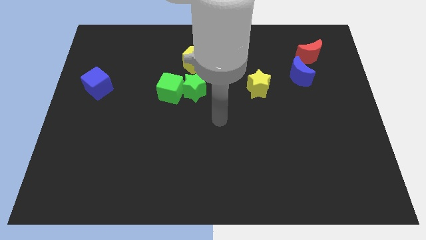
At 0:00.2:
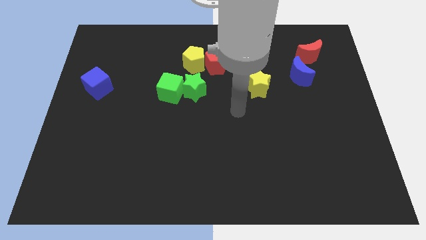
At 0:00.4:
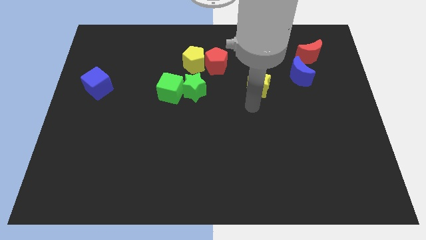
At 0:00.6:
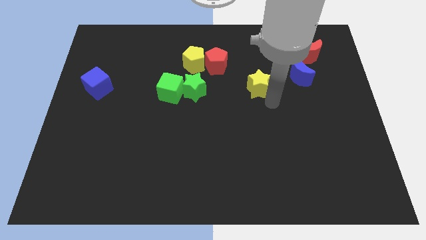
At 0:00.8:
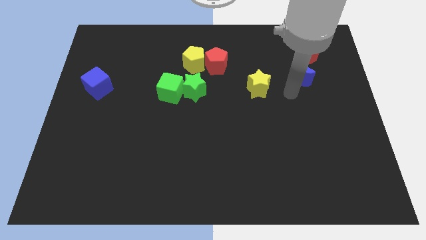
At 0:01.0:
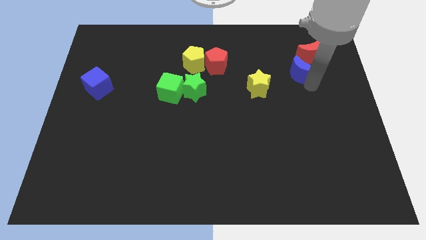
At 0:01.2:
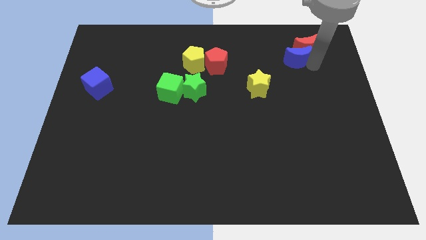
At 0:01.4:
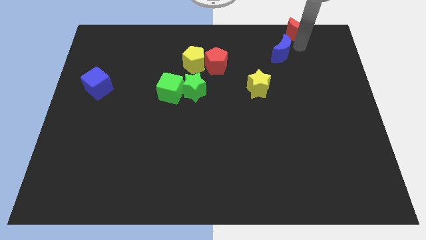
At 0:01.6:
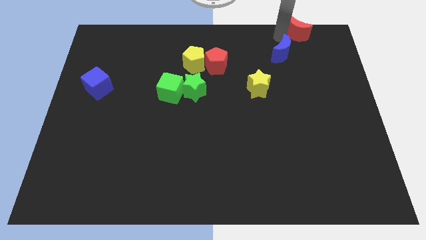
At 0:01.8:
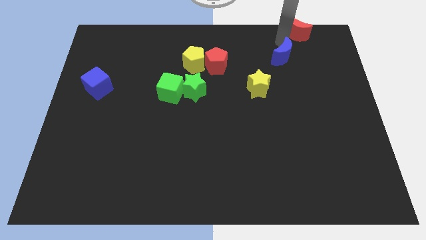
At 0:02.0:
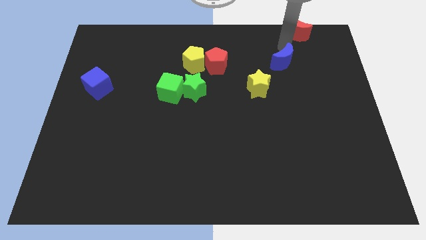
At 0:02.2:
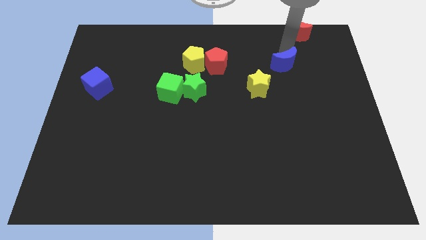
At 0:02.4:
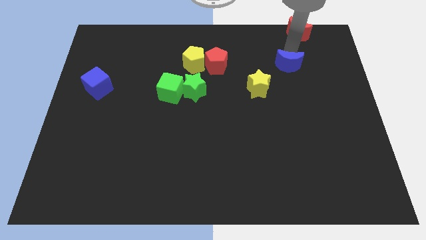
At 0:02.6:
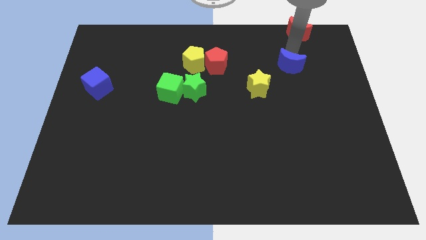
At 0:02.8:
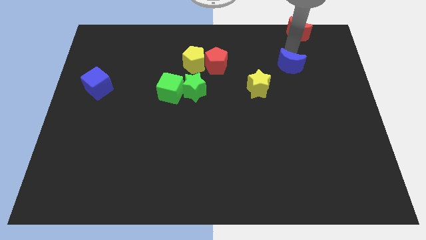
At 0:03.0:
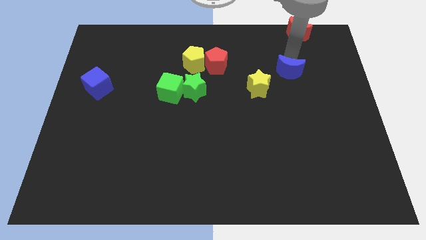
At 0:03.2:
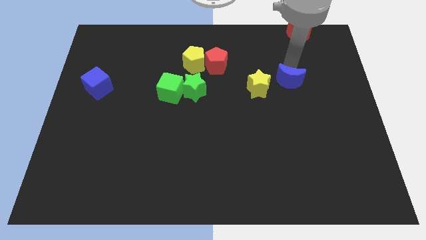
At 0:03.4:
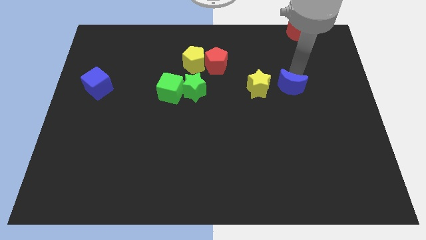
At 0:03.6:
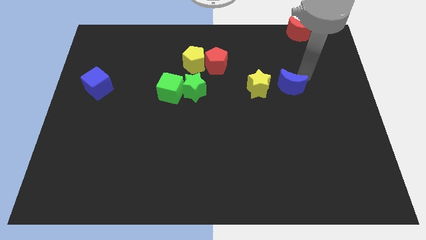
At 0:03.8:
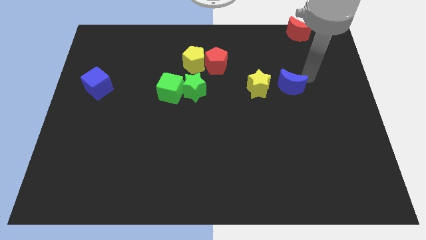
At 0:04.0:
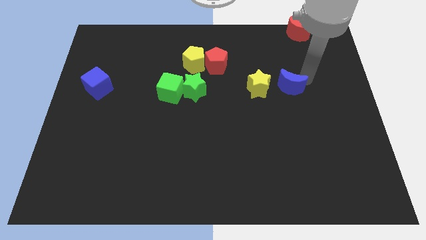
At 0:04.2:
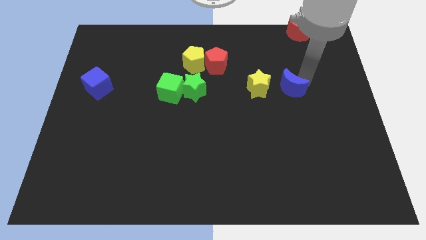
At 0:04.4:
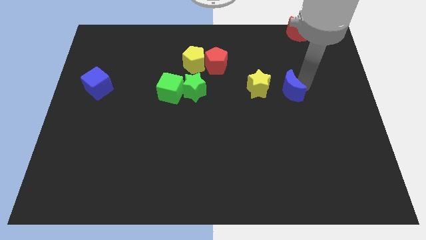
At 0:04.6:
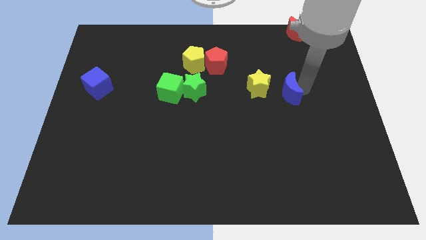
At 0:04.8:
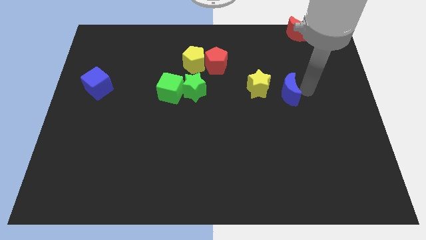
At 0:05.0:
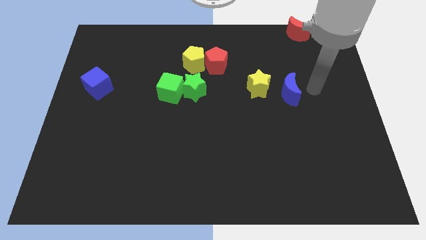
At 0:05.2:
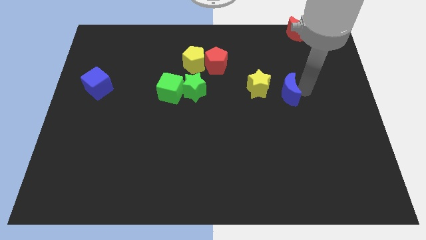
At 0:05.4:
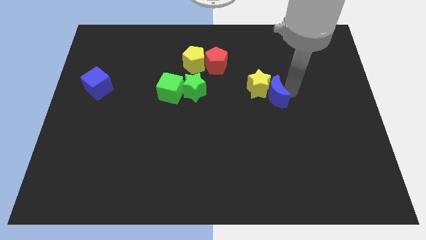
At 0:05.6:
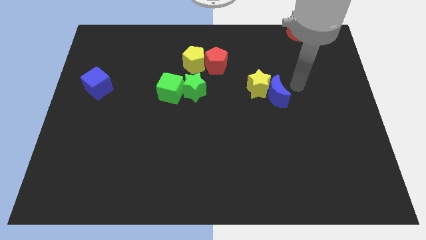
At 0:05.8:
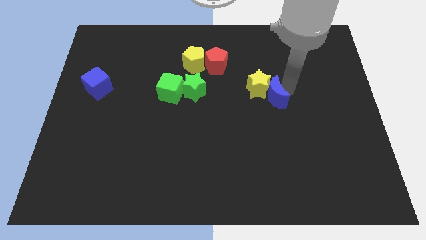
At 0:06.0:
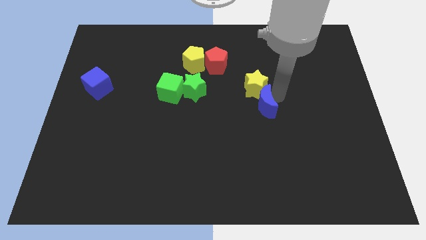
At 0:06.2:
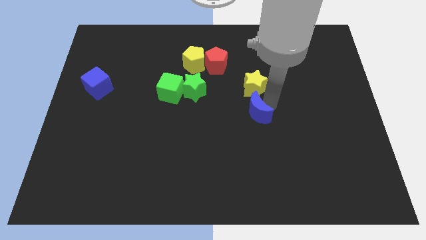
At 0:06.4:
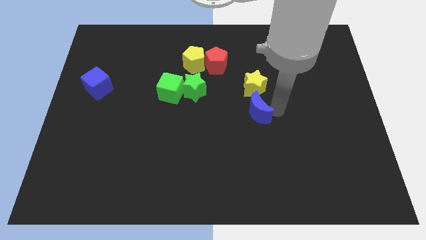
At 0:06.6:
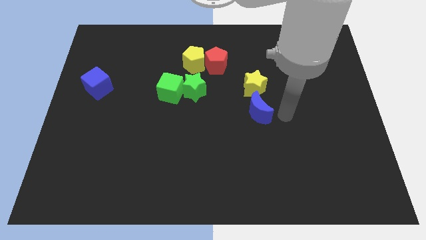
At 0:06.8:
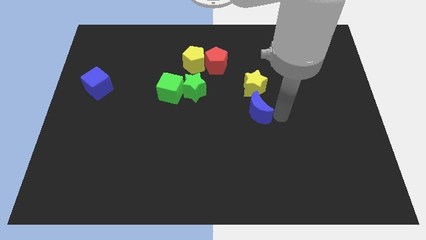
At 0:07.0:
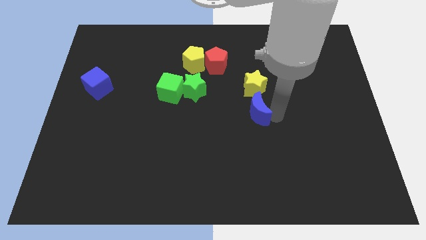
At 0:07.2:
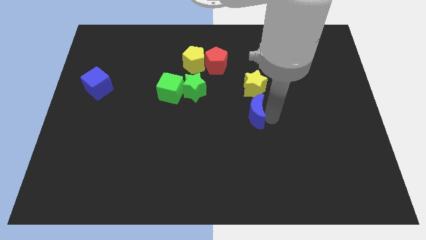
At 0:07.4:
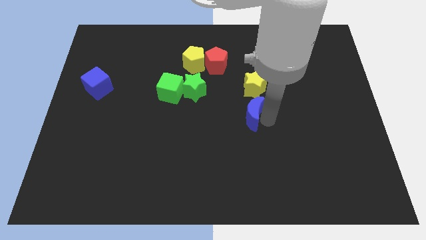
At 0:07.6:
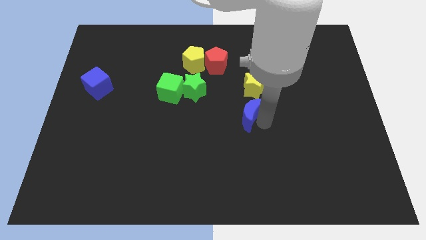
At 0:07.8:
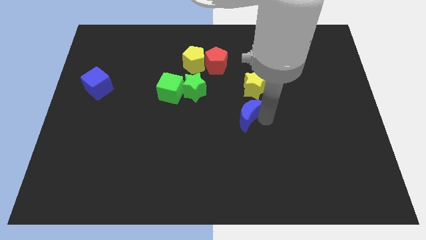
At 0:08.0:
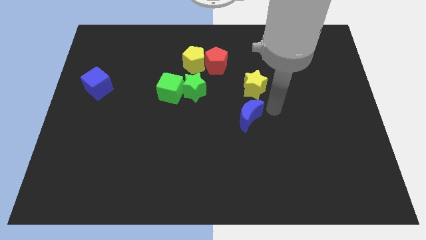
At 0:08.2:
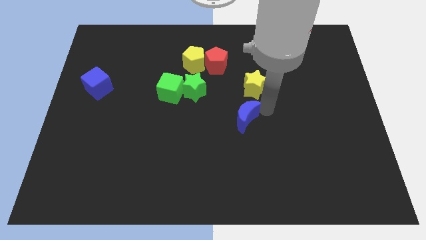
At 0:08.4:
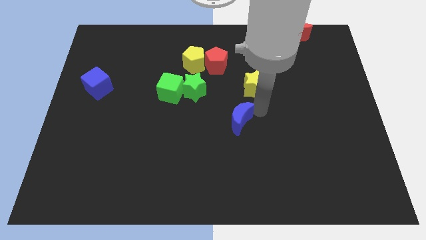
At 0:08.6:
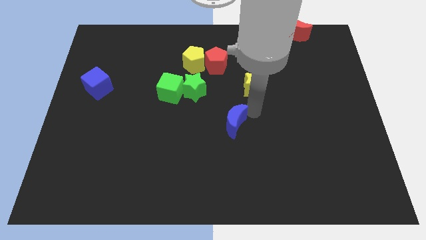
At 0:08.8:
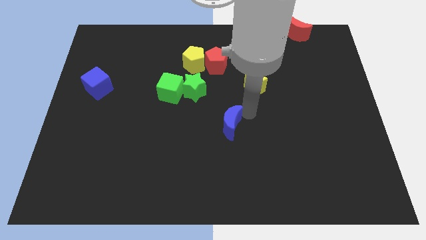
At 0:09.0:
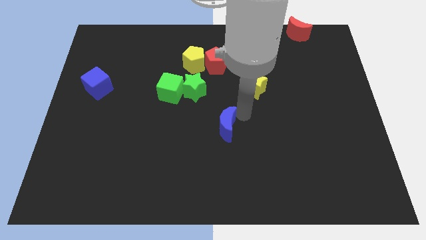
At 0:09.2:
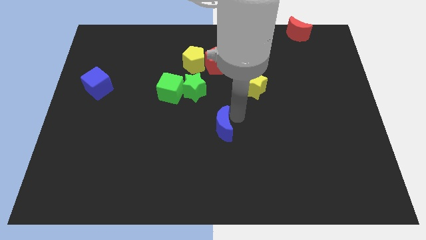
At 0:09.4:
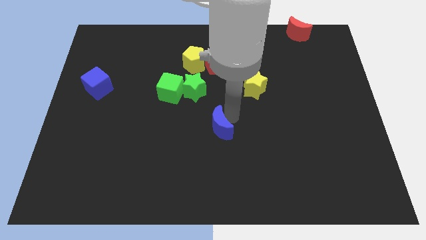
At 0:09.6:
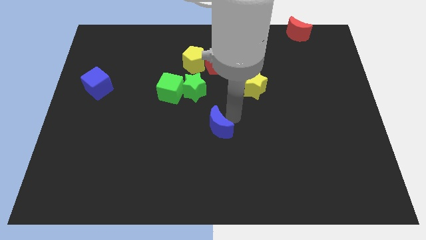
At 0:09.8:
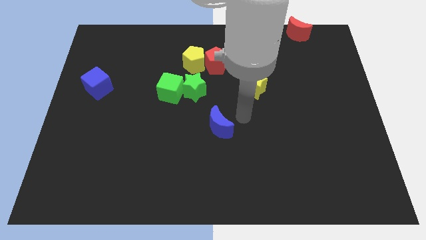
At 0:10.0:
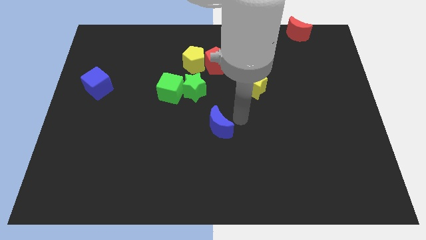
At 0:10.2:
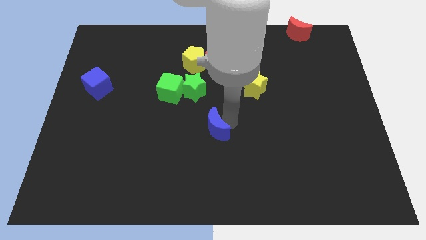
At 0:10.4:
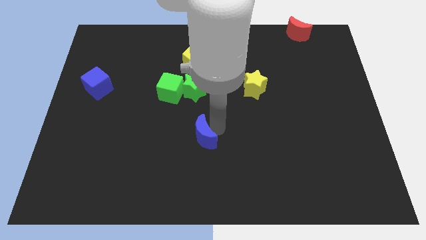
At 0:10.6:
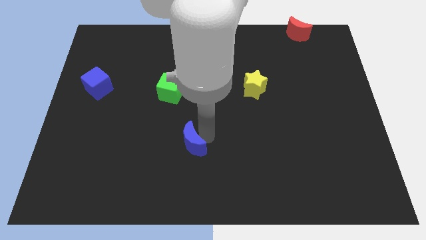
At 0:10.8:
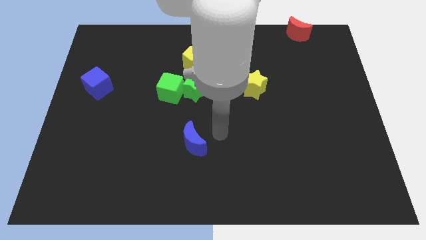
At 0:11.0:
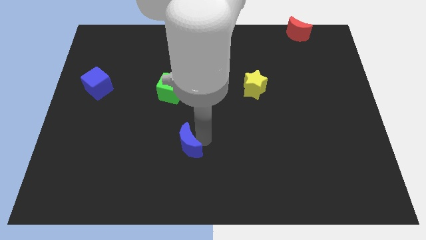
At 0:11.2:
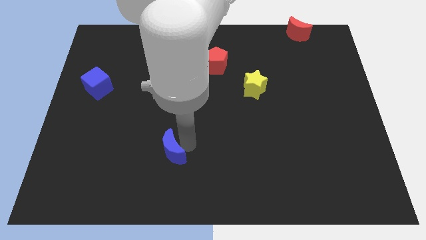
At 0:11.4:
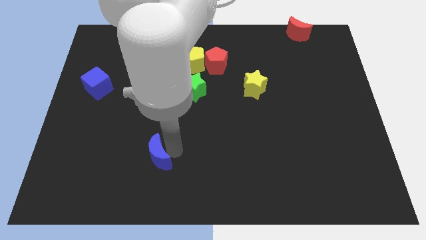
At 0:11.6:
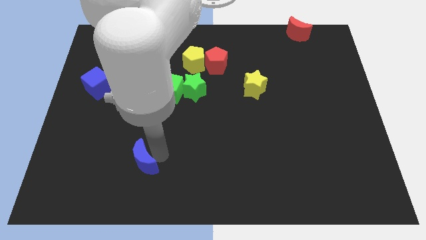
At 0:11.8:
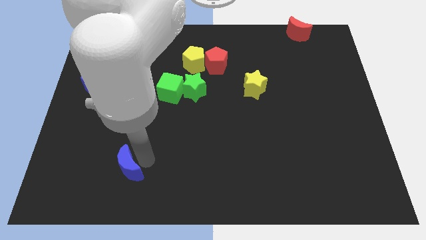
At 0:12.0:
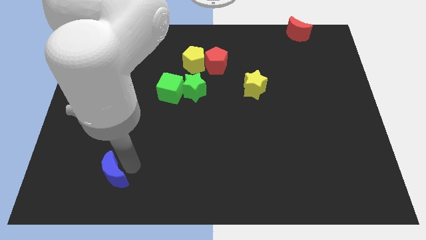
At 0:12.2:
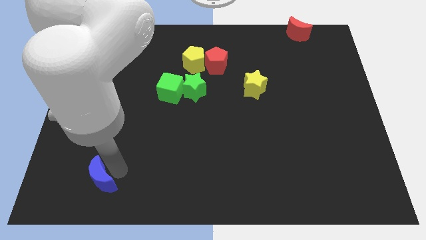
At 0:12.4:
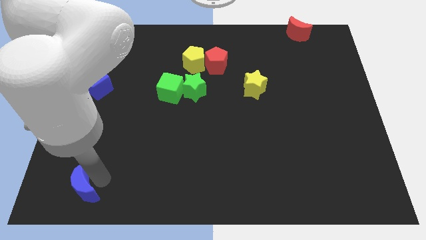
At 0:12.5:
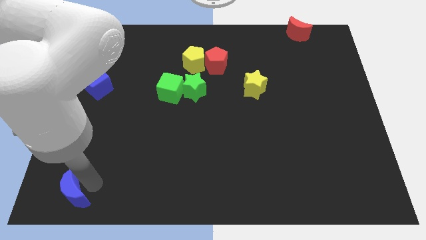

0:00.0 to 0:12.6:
put the blue moon to the lower left corner

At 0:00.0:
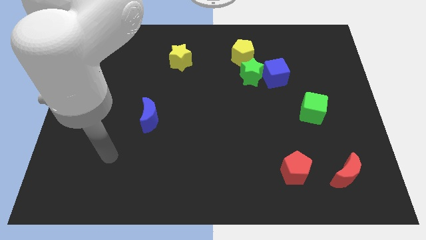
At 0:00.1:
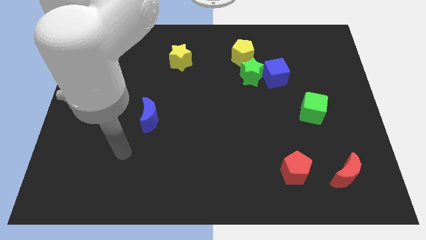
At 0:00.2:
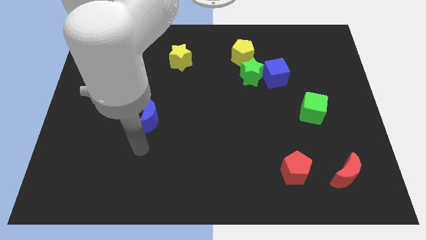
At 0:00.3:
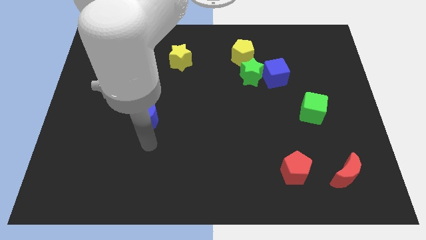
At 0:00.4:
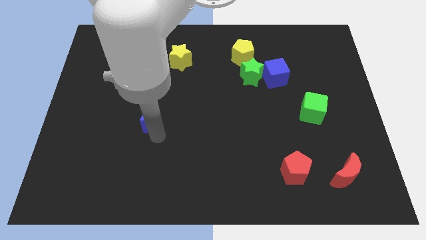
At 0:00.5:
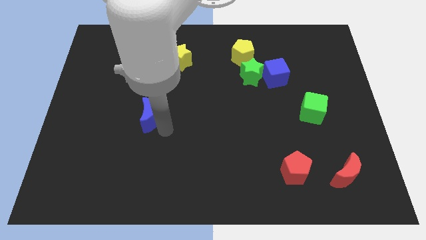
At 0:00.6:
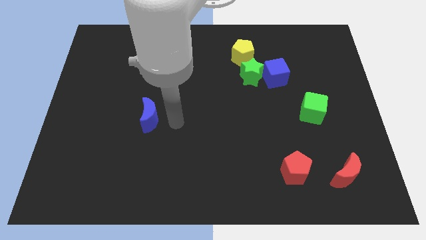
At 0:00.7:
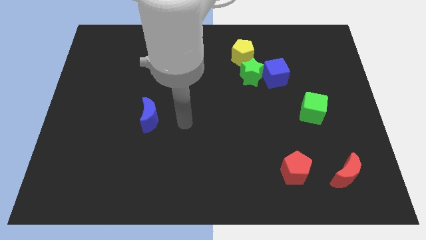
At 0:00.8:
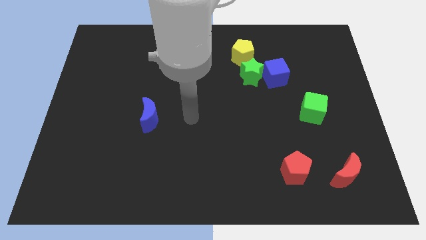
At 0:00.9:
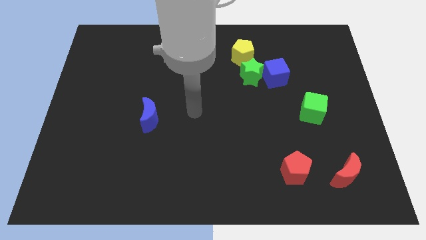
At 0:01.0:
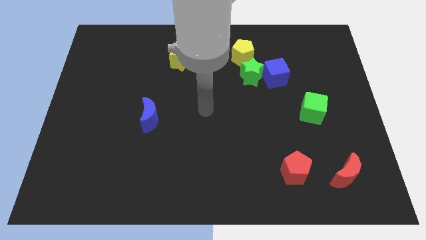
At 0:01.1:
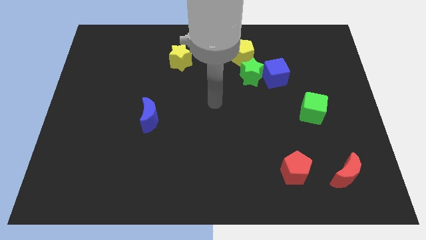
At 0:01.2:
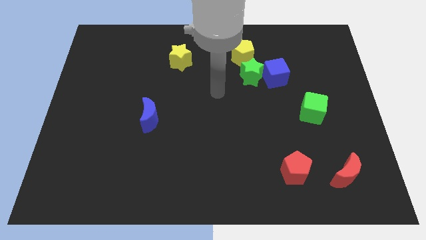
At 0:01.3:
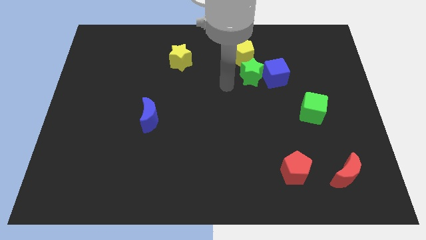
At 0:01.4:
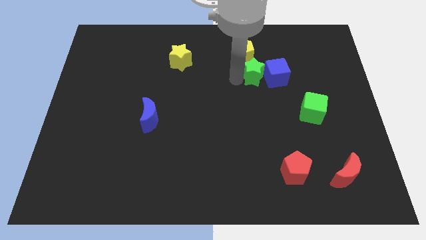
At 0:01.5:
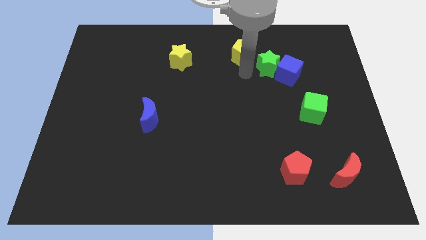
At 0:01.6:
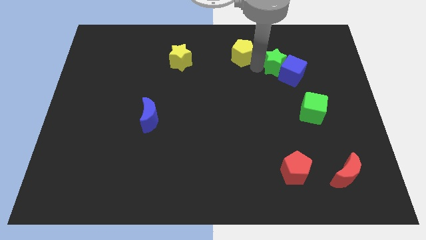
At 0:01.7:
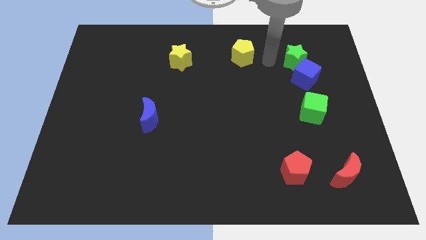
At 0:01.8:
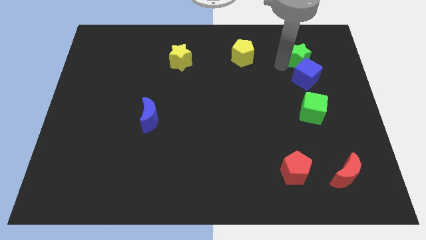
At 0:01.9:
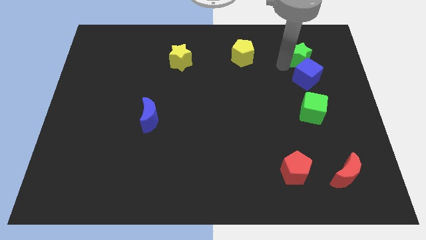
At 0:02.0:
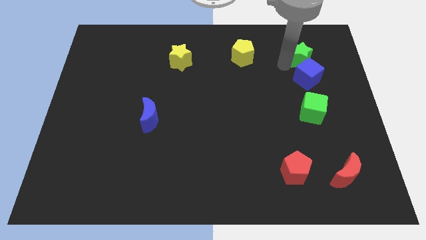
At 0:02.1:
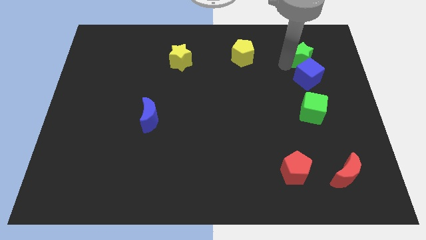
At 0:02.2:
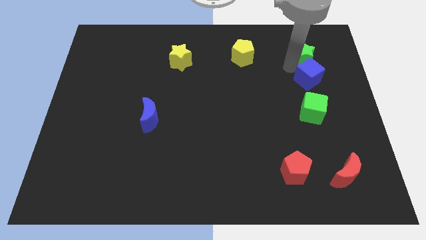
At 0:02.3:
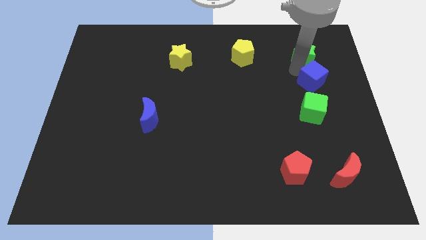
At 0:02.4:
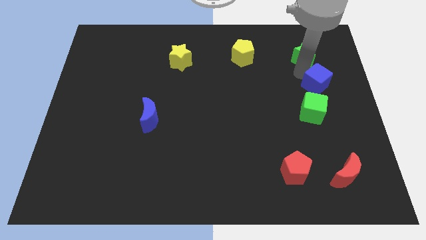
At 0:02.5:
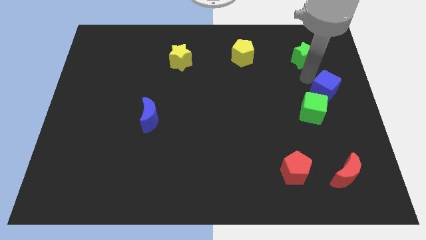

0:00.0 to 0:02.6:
put the blue cube to the right side
